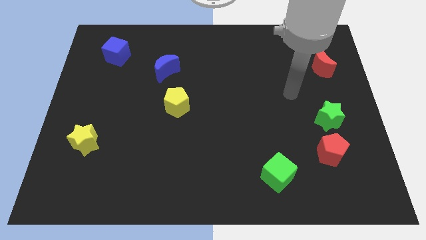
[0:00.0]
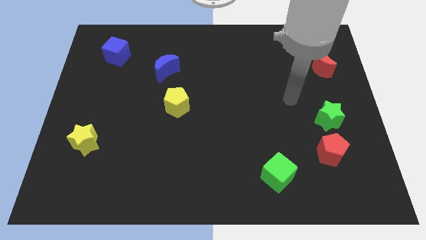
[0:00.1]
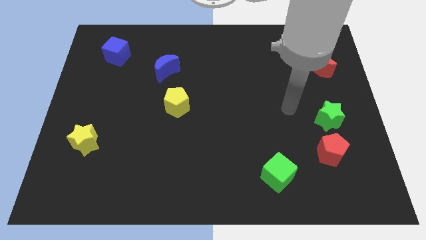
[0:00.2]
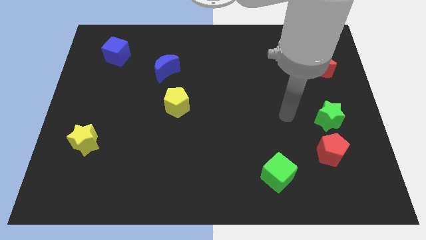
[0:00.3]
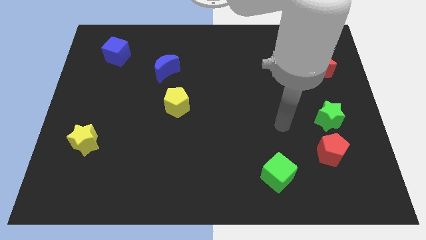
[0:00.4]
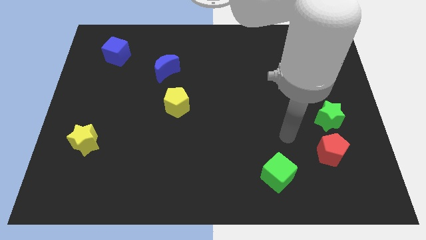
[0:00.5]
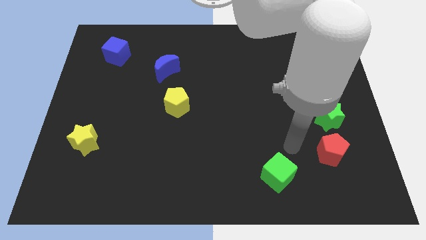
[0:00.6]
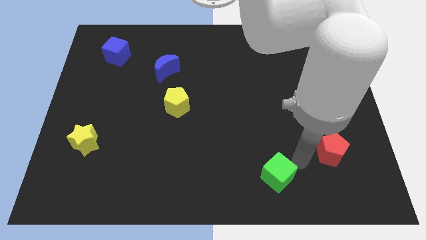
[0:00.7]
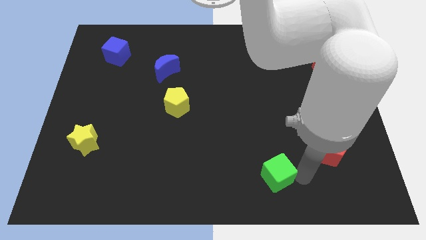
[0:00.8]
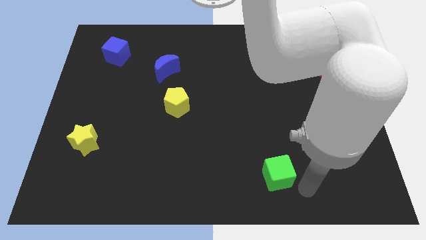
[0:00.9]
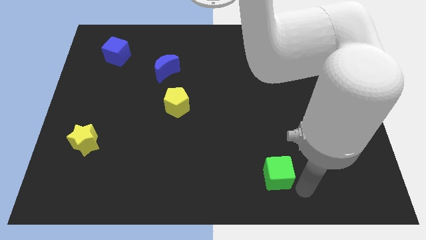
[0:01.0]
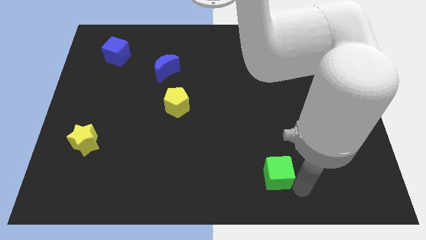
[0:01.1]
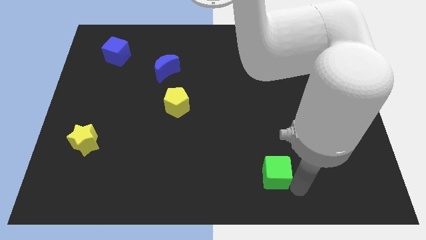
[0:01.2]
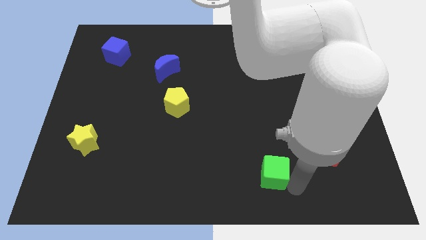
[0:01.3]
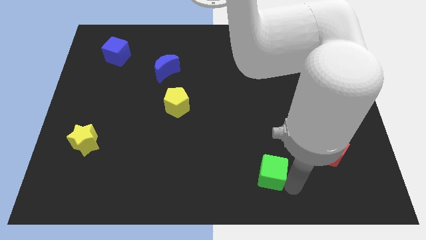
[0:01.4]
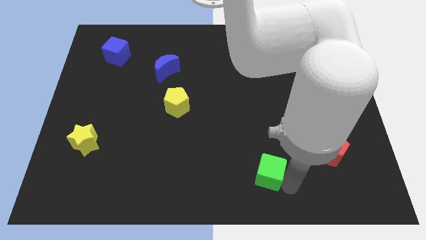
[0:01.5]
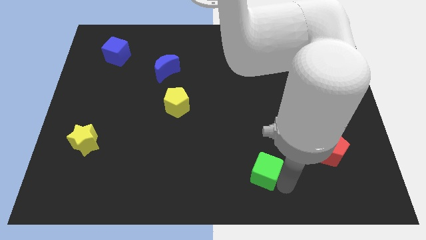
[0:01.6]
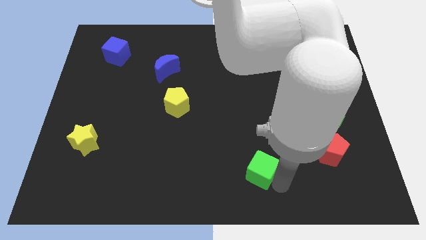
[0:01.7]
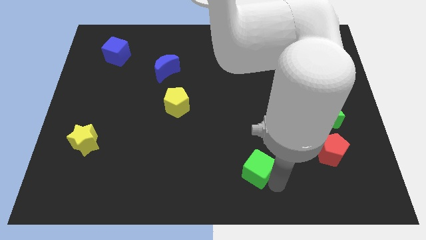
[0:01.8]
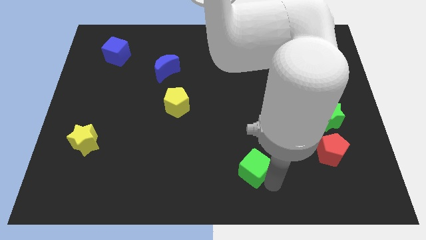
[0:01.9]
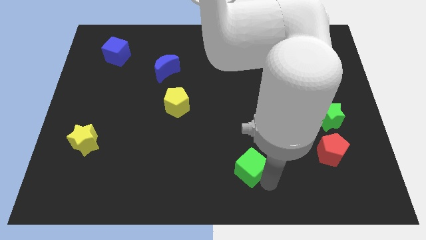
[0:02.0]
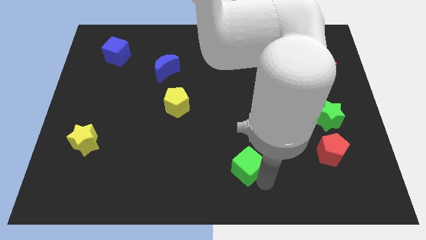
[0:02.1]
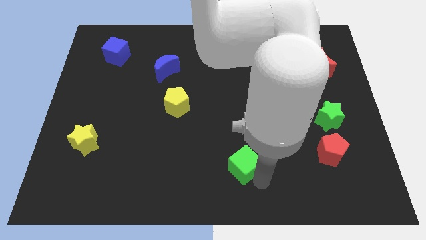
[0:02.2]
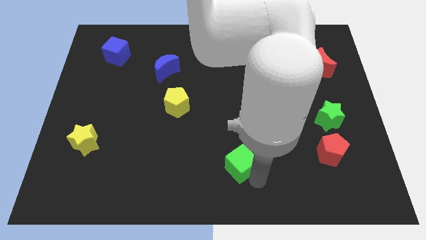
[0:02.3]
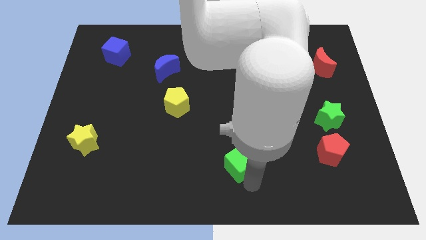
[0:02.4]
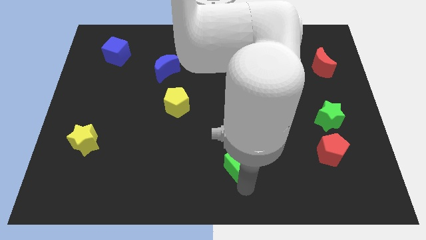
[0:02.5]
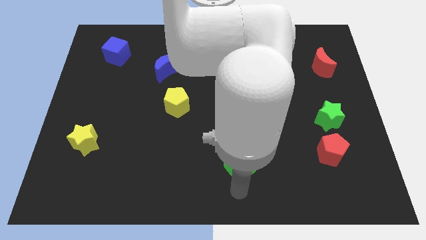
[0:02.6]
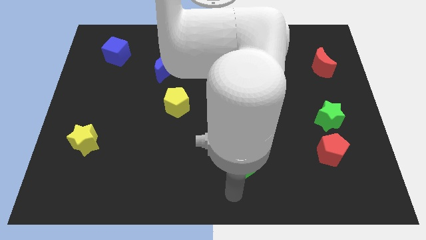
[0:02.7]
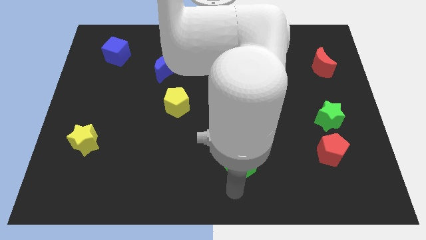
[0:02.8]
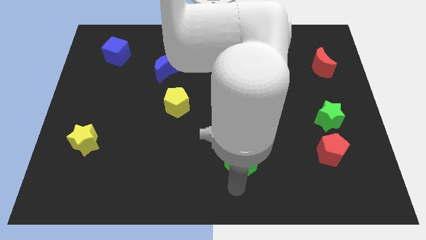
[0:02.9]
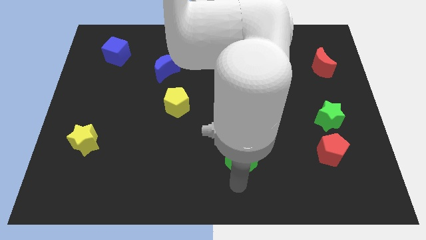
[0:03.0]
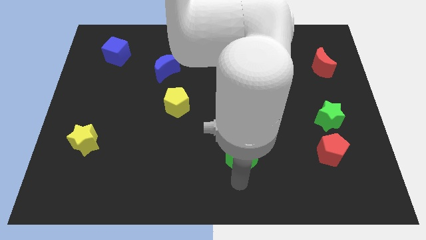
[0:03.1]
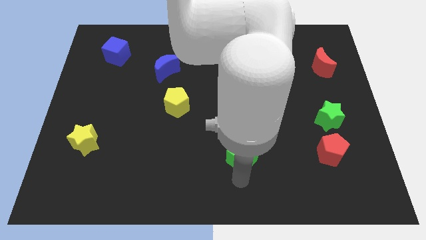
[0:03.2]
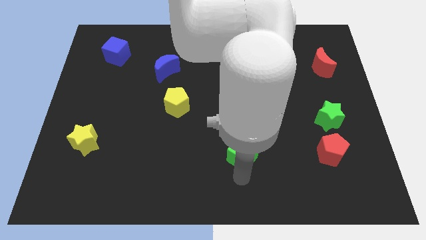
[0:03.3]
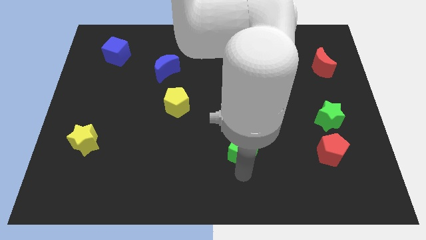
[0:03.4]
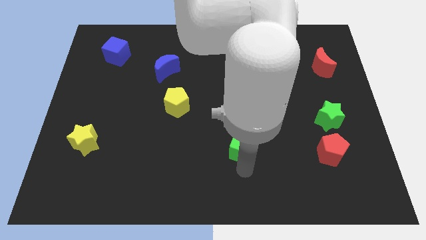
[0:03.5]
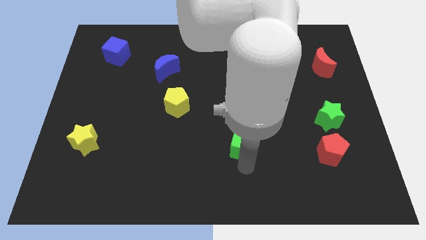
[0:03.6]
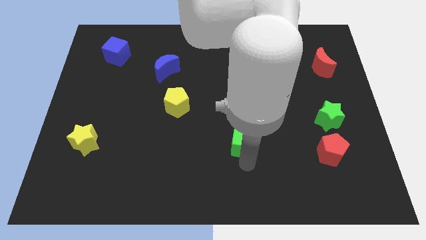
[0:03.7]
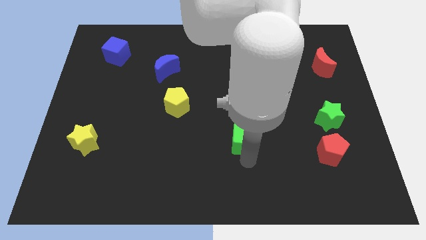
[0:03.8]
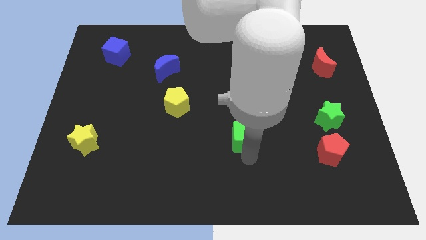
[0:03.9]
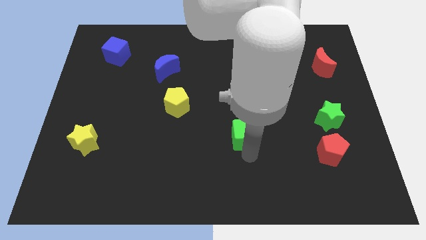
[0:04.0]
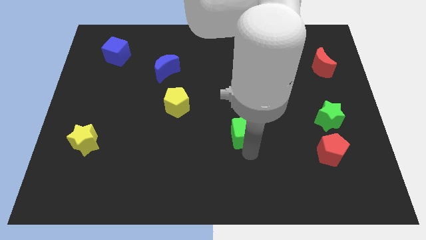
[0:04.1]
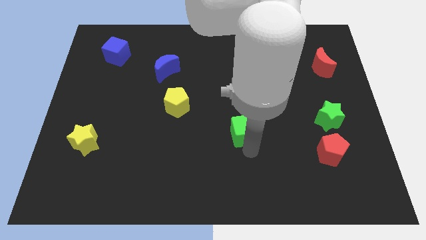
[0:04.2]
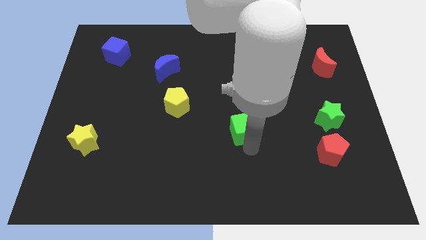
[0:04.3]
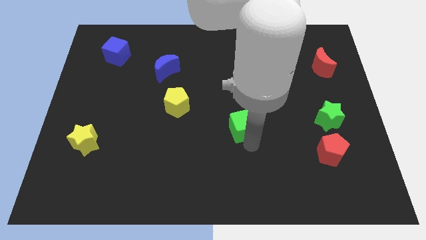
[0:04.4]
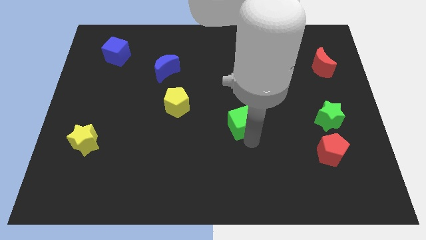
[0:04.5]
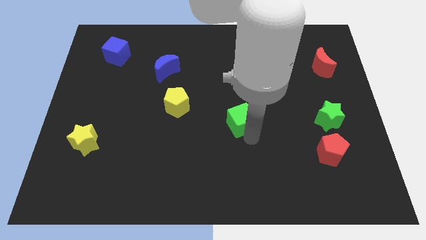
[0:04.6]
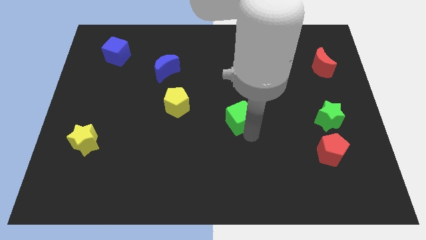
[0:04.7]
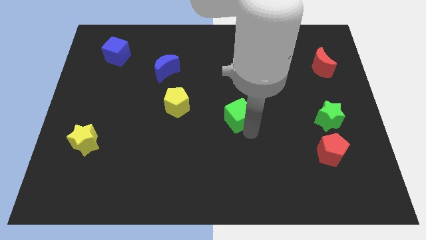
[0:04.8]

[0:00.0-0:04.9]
put the green cube just right of the yellow pentagon

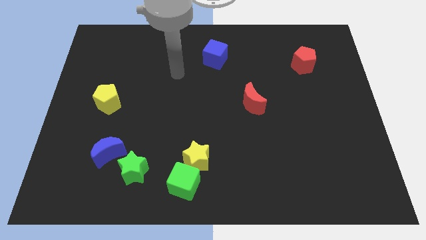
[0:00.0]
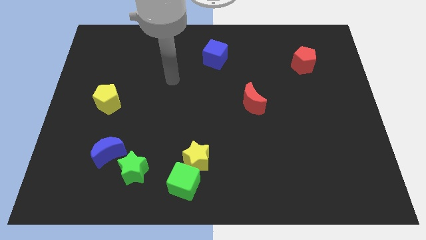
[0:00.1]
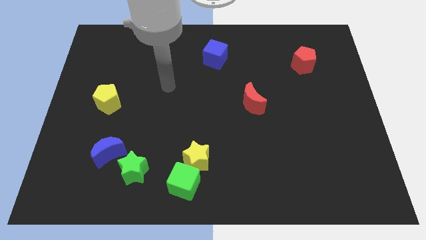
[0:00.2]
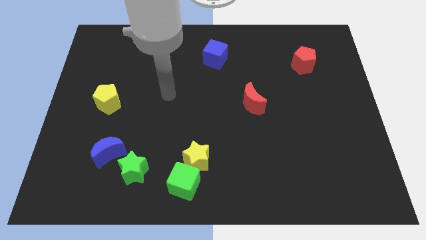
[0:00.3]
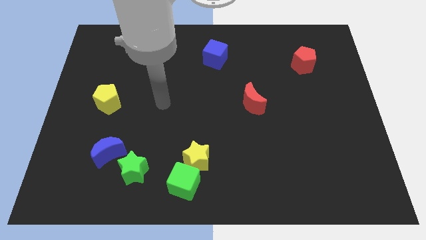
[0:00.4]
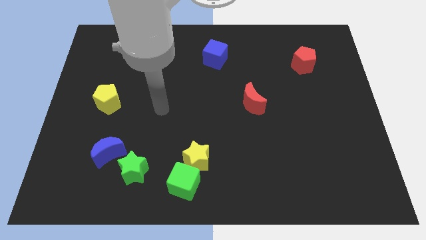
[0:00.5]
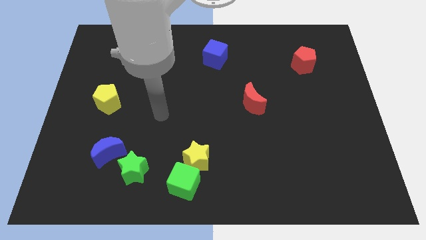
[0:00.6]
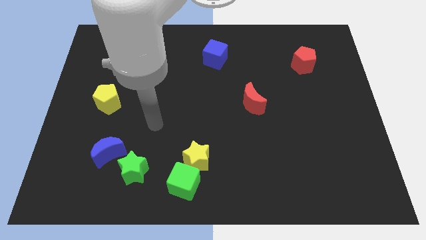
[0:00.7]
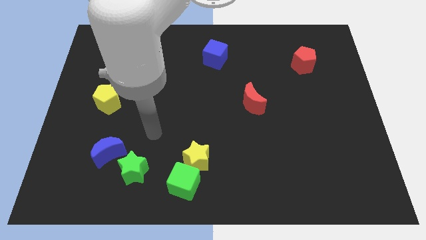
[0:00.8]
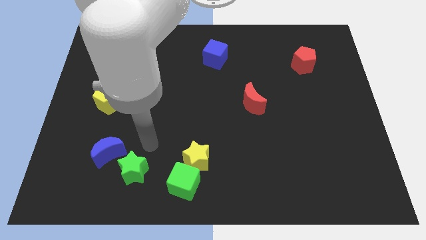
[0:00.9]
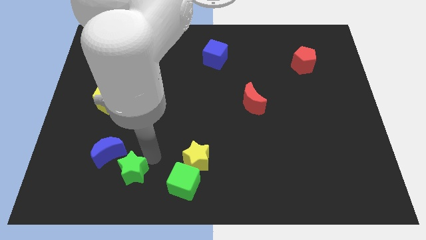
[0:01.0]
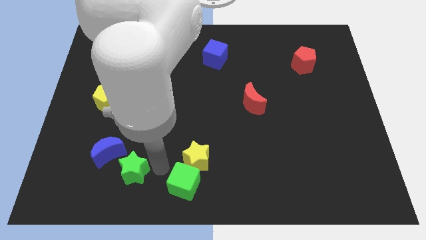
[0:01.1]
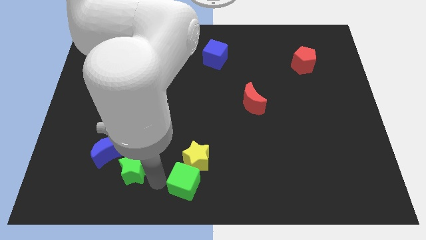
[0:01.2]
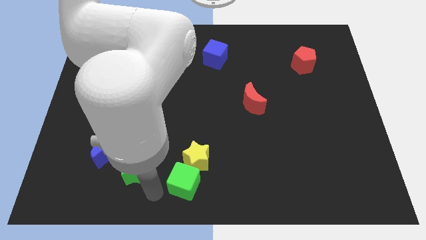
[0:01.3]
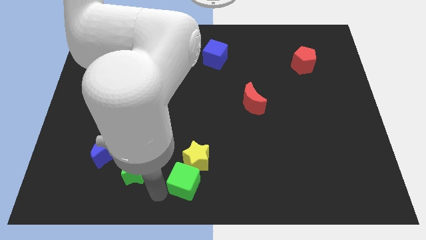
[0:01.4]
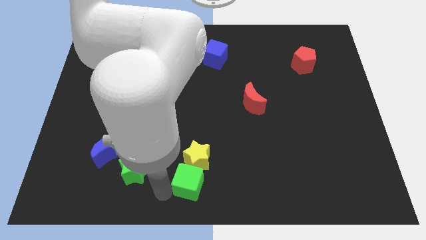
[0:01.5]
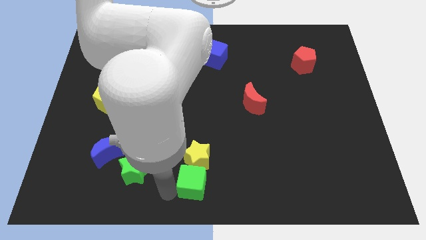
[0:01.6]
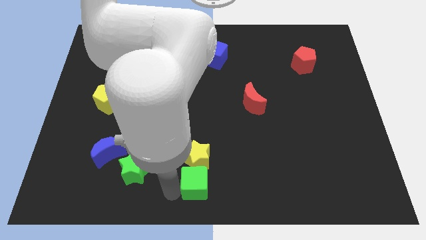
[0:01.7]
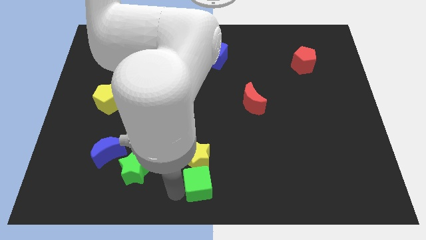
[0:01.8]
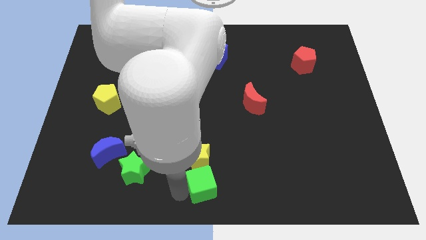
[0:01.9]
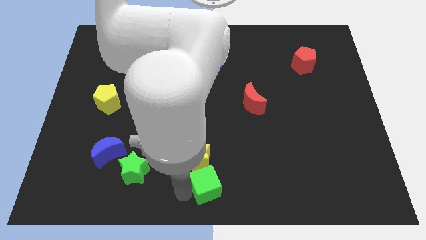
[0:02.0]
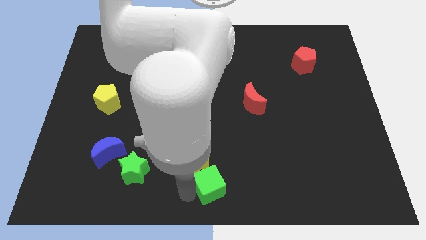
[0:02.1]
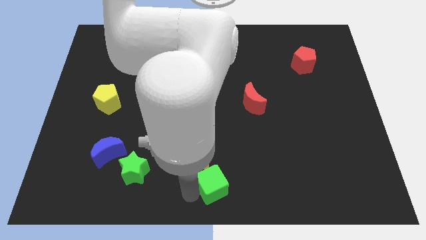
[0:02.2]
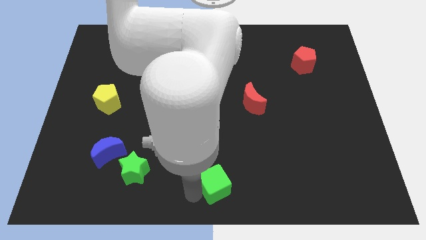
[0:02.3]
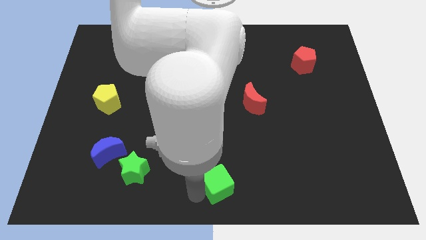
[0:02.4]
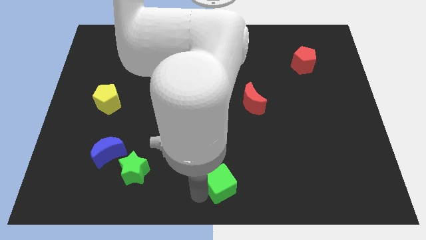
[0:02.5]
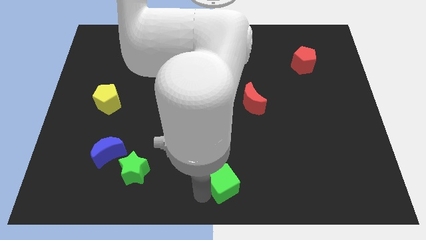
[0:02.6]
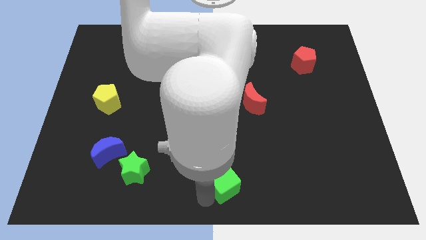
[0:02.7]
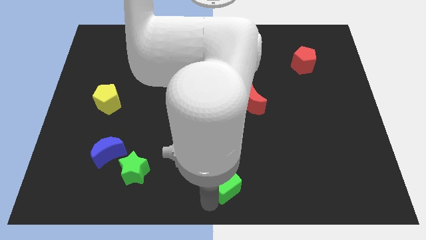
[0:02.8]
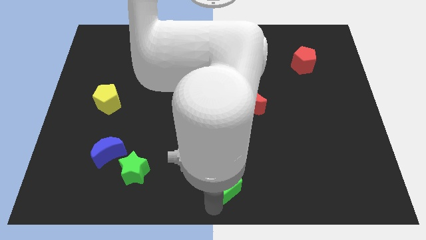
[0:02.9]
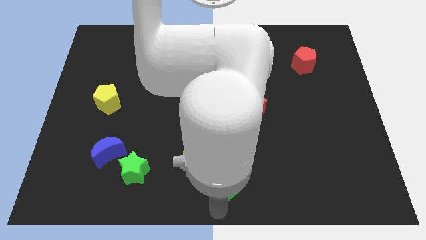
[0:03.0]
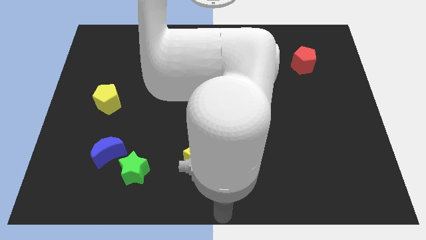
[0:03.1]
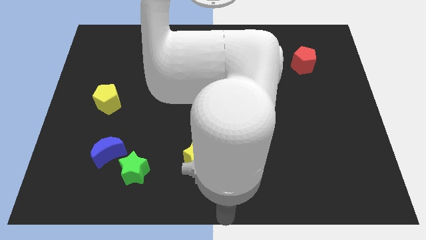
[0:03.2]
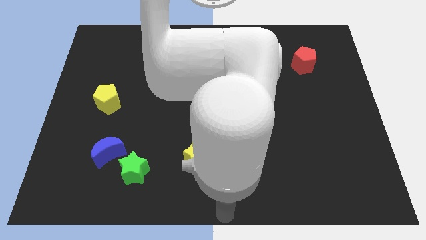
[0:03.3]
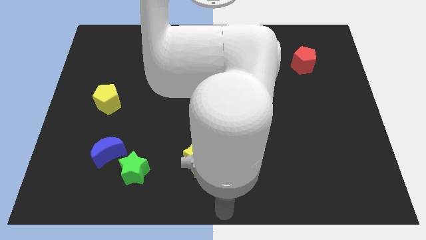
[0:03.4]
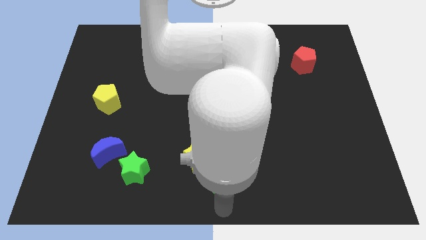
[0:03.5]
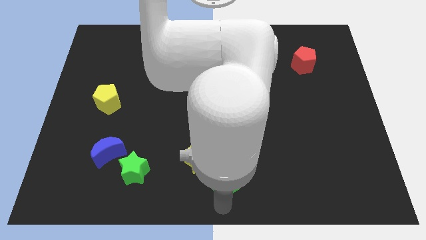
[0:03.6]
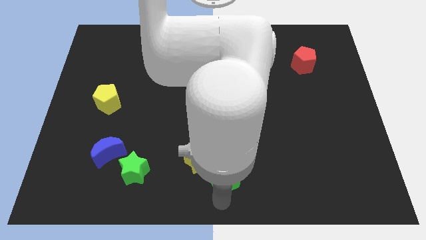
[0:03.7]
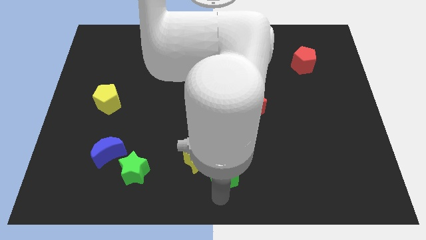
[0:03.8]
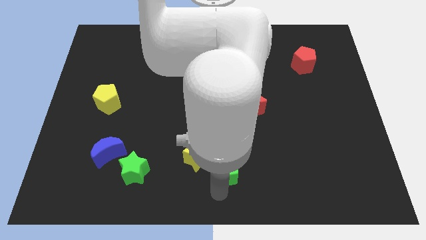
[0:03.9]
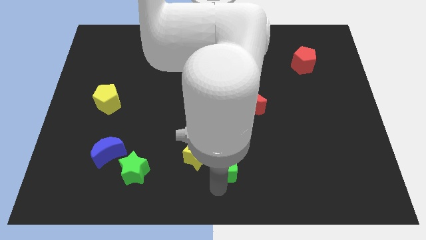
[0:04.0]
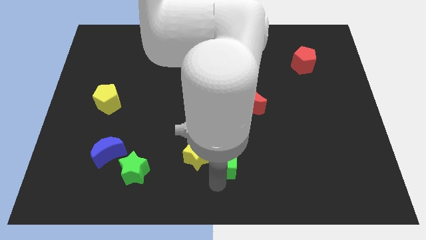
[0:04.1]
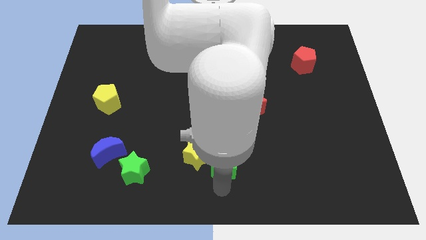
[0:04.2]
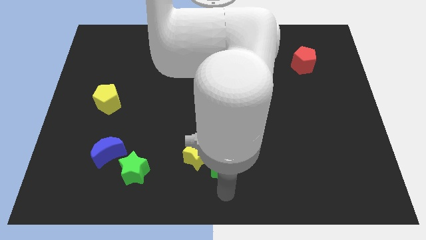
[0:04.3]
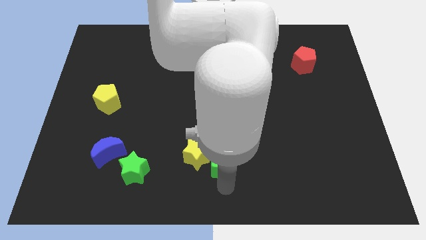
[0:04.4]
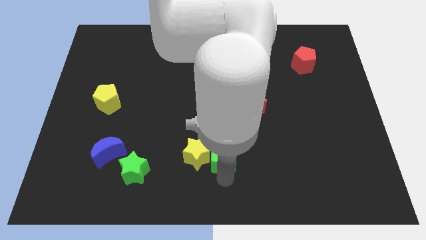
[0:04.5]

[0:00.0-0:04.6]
move the green cube to the top right of the yellow star
